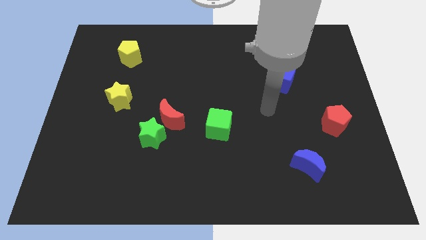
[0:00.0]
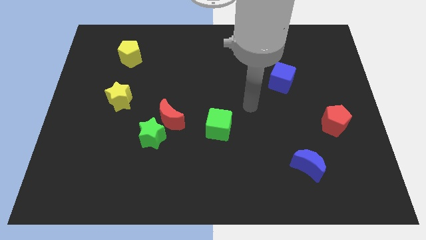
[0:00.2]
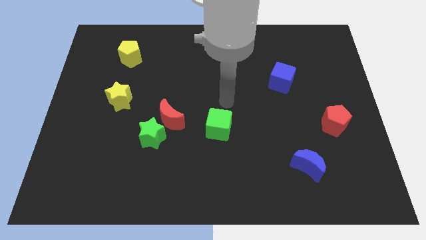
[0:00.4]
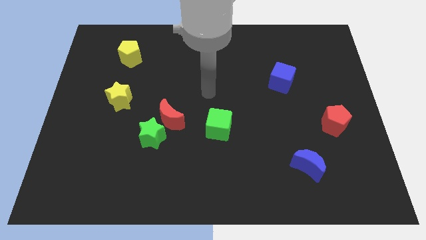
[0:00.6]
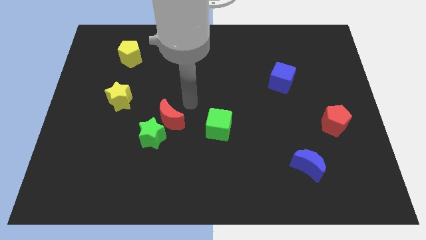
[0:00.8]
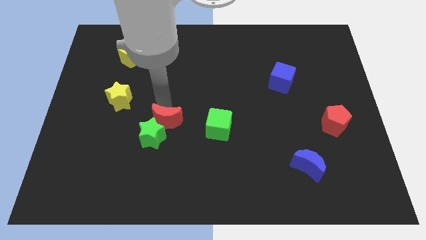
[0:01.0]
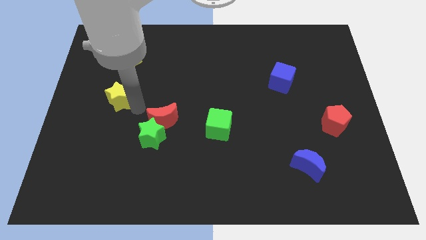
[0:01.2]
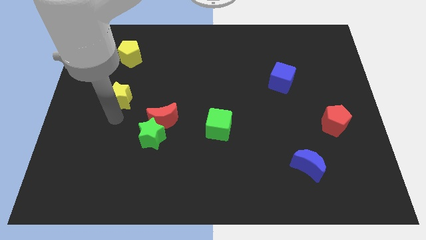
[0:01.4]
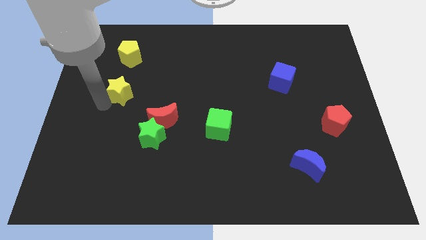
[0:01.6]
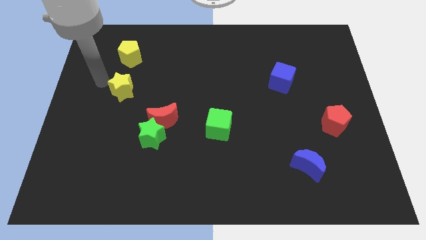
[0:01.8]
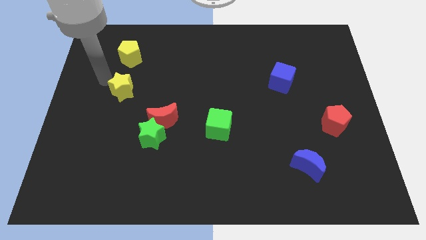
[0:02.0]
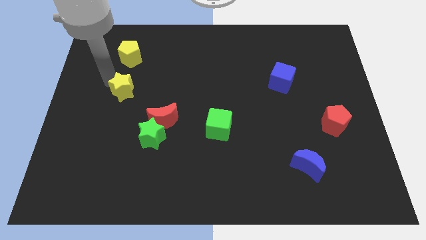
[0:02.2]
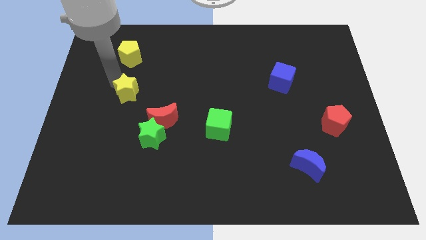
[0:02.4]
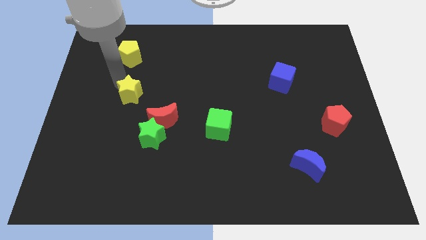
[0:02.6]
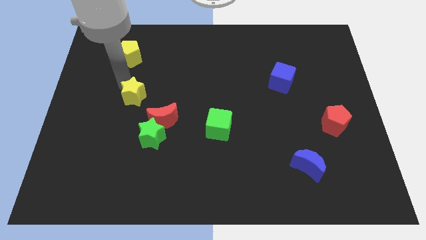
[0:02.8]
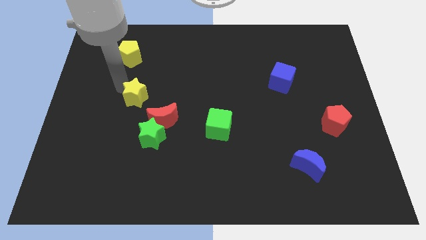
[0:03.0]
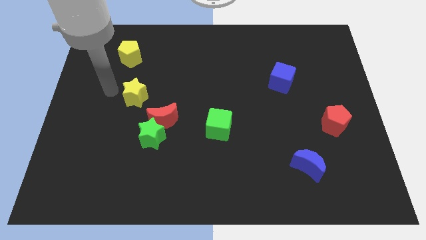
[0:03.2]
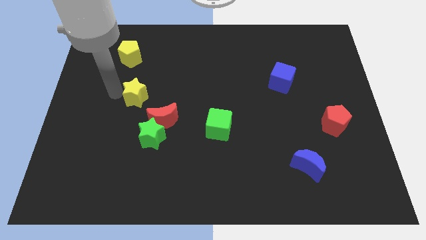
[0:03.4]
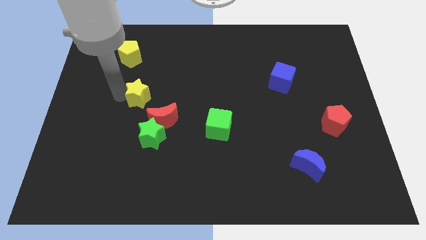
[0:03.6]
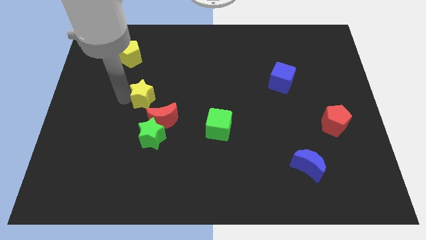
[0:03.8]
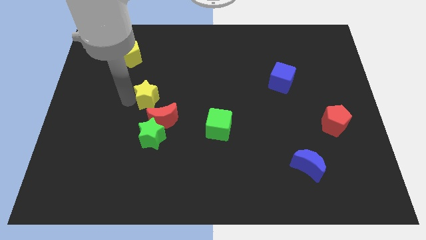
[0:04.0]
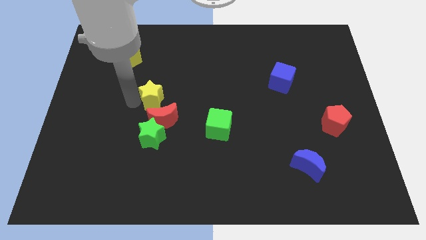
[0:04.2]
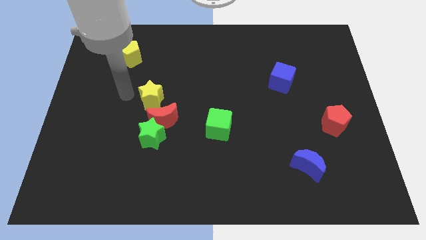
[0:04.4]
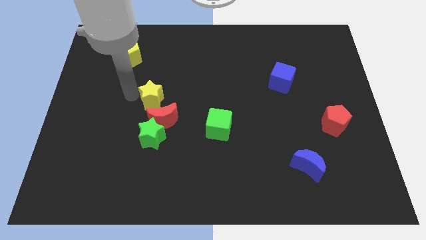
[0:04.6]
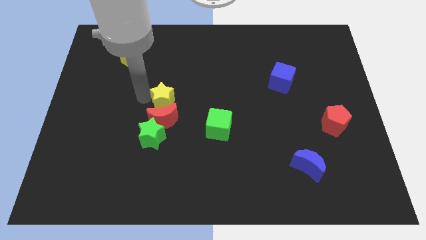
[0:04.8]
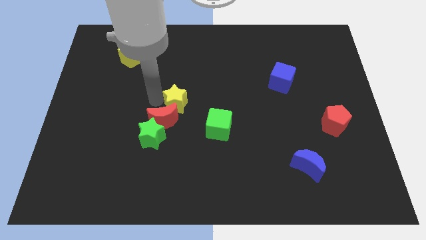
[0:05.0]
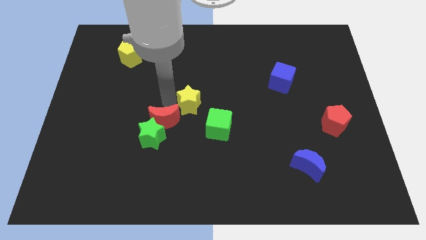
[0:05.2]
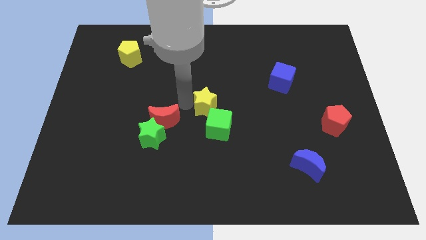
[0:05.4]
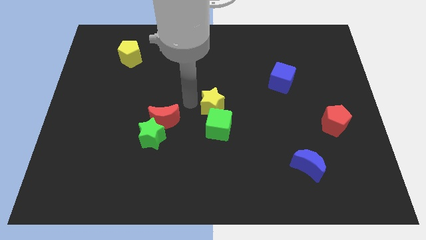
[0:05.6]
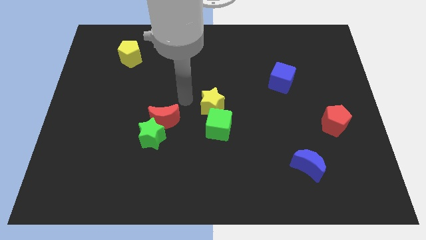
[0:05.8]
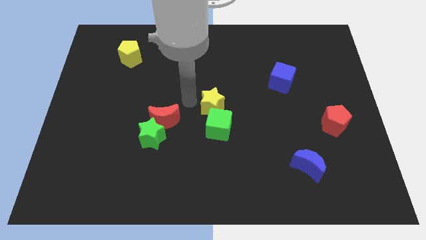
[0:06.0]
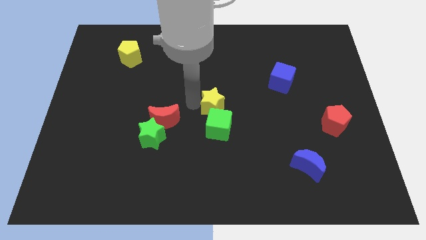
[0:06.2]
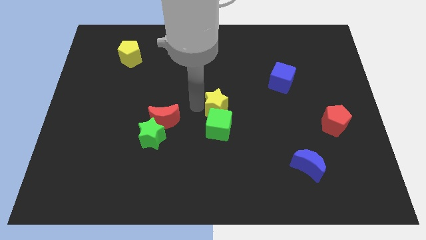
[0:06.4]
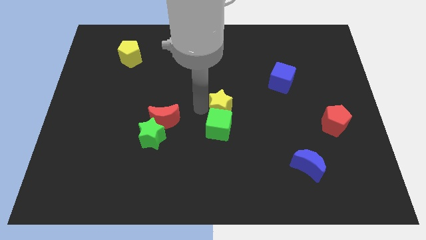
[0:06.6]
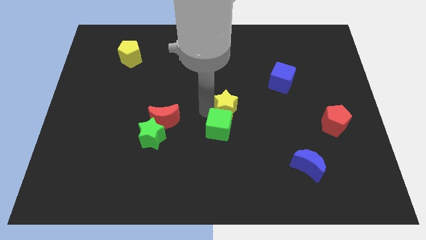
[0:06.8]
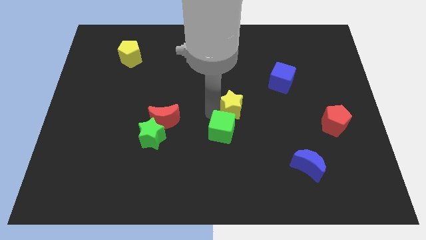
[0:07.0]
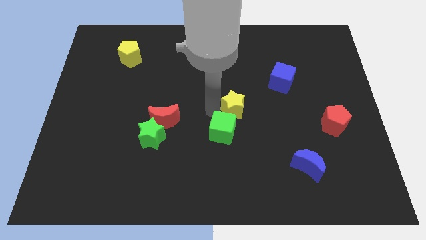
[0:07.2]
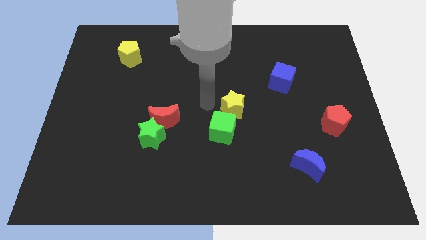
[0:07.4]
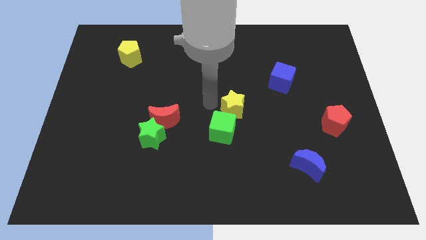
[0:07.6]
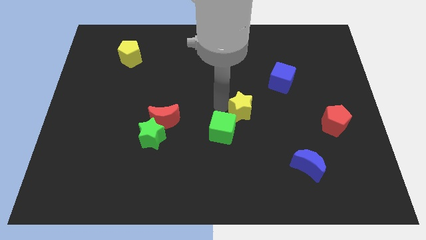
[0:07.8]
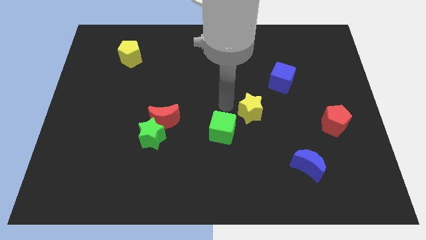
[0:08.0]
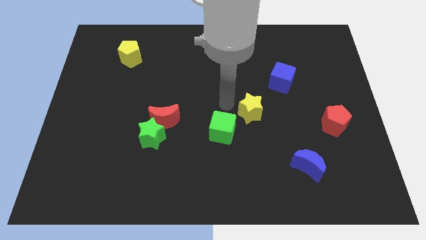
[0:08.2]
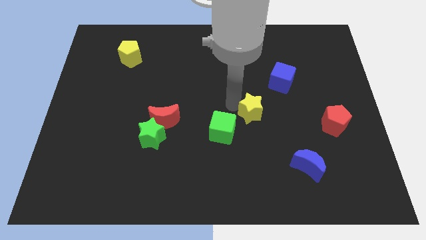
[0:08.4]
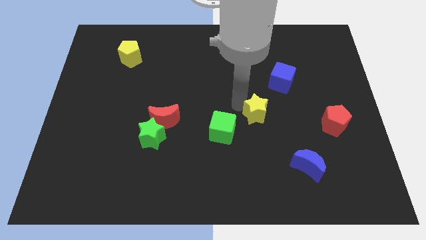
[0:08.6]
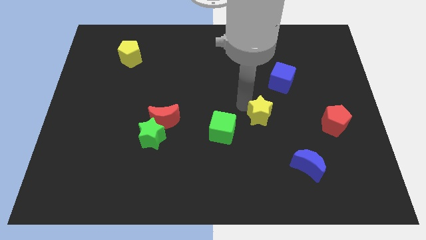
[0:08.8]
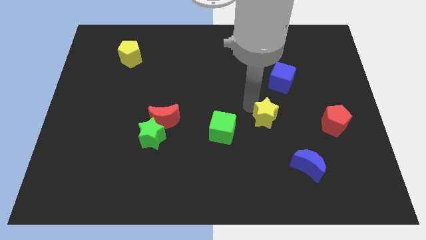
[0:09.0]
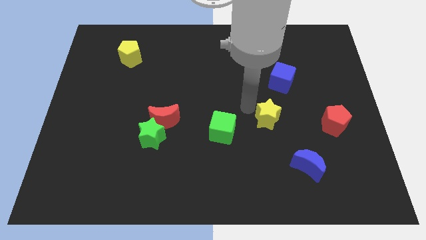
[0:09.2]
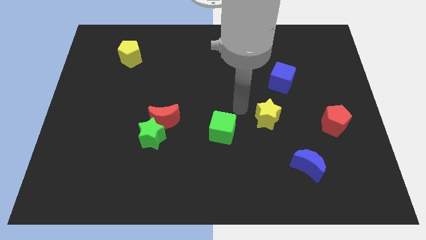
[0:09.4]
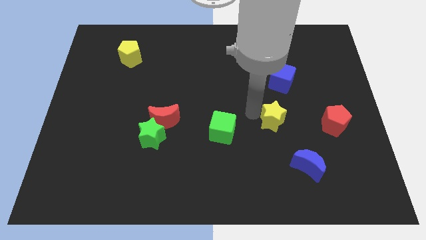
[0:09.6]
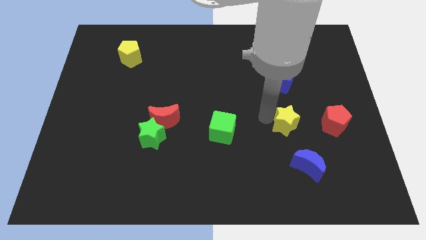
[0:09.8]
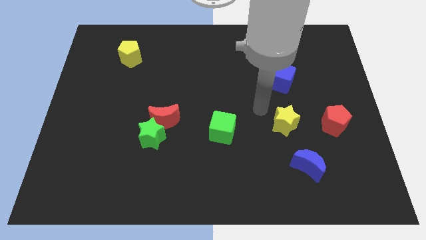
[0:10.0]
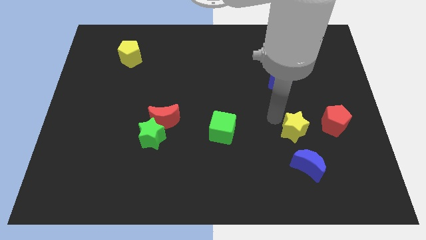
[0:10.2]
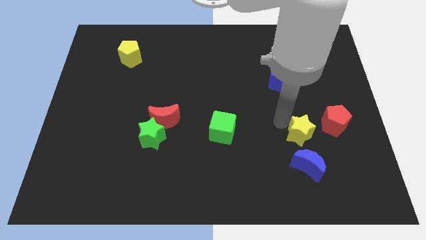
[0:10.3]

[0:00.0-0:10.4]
put the yellow star diagonally down and to the left of the red pentagon

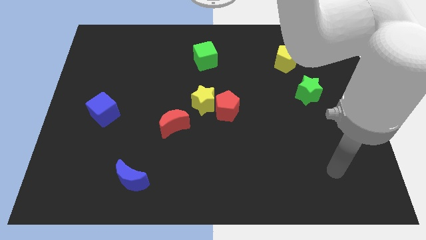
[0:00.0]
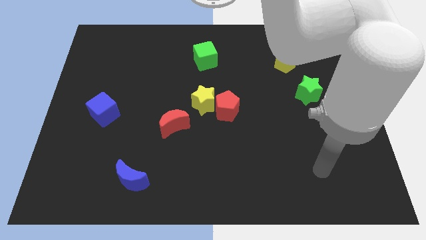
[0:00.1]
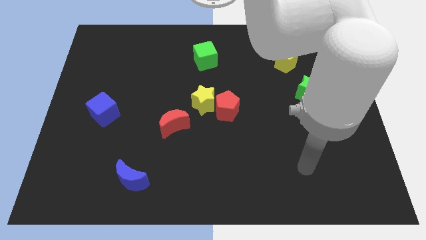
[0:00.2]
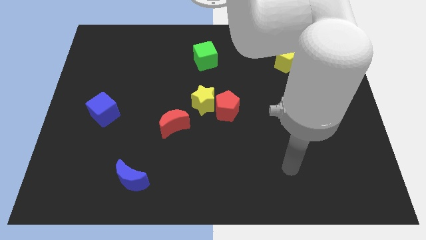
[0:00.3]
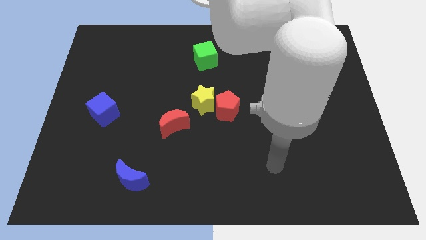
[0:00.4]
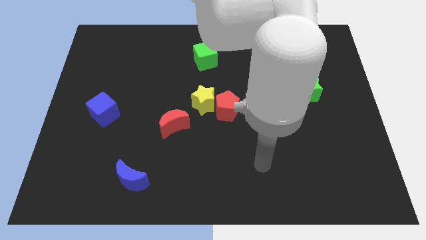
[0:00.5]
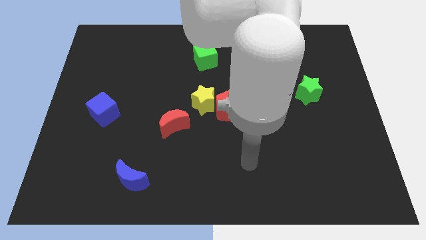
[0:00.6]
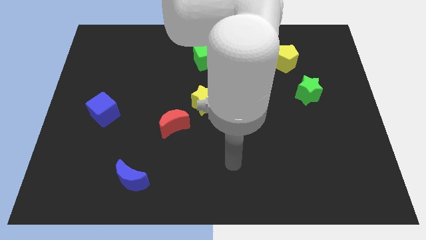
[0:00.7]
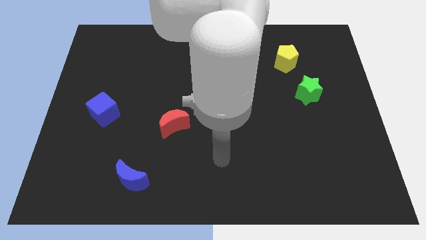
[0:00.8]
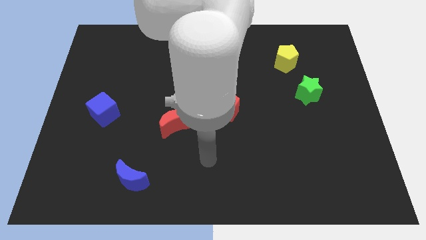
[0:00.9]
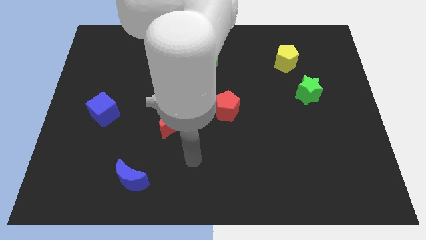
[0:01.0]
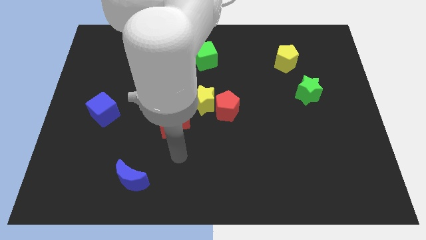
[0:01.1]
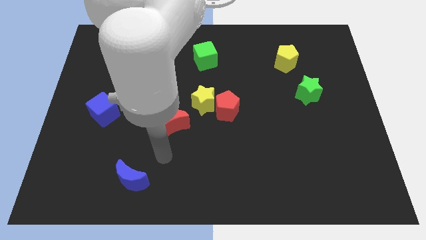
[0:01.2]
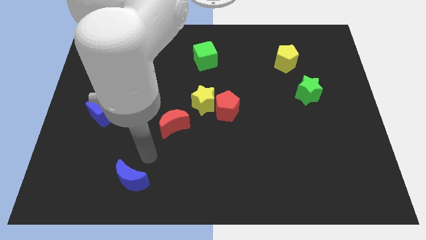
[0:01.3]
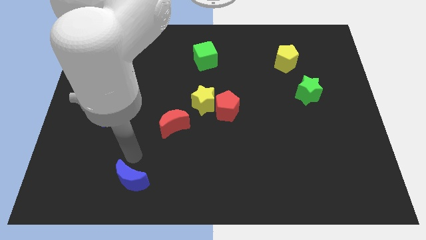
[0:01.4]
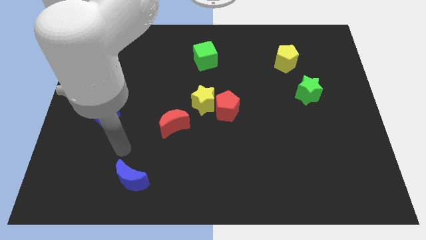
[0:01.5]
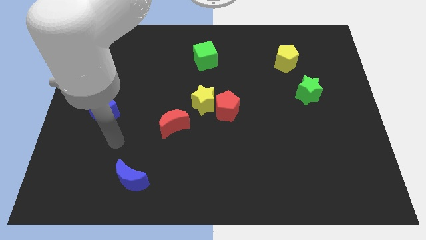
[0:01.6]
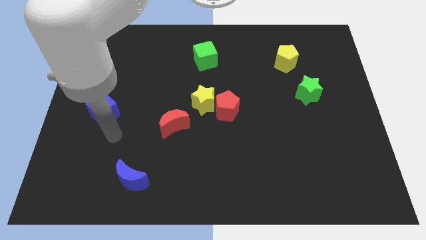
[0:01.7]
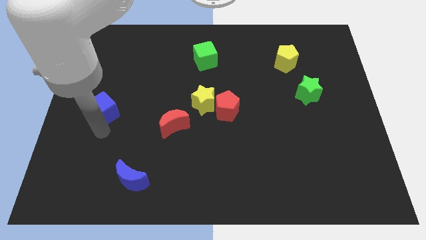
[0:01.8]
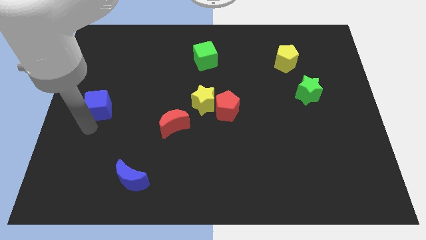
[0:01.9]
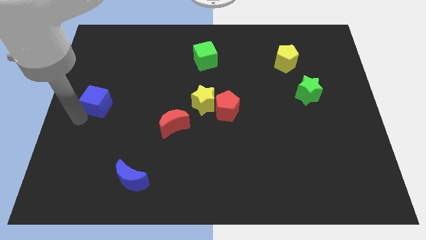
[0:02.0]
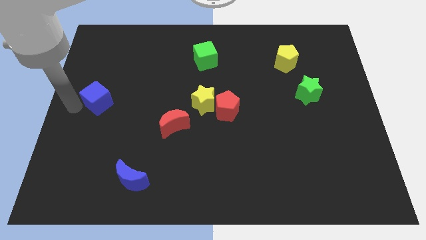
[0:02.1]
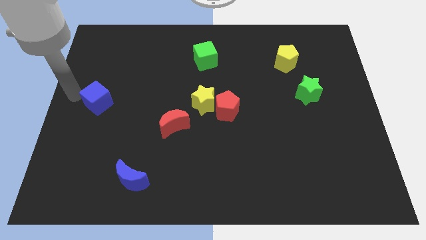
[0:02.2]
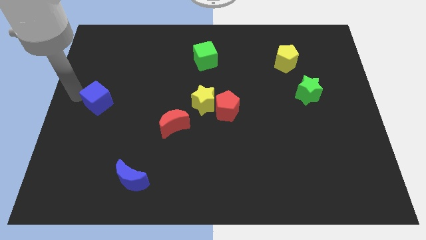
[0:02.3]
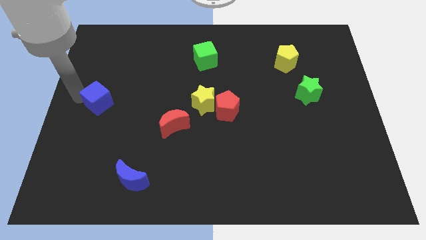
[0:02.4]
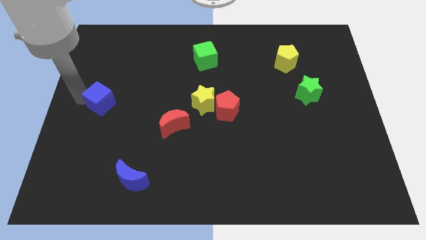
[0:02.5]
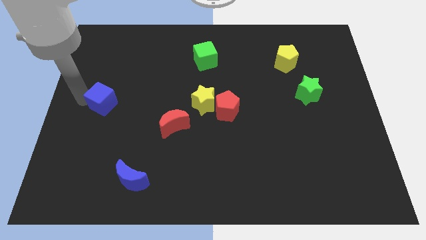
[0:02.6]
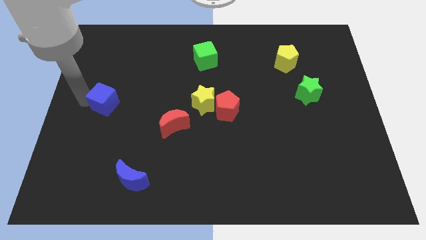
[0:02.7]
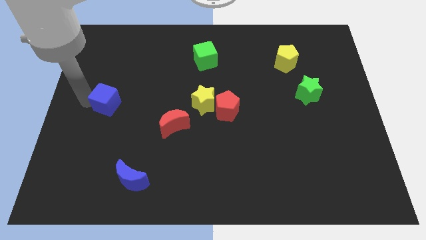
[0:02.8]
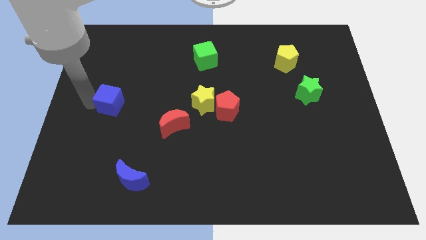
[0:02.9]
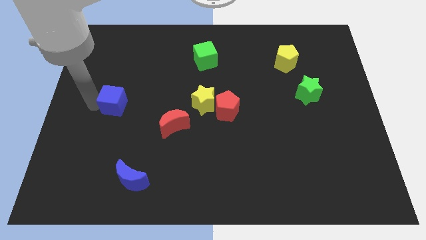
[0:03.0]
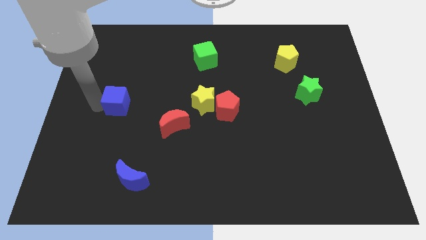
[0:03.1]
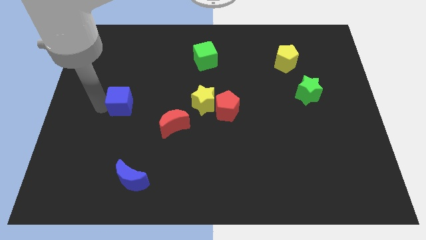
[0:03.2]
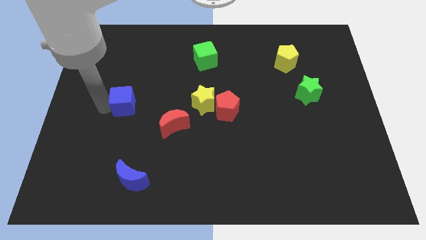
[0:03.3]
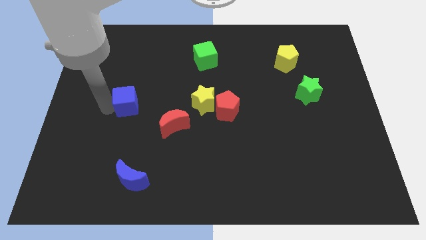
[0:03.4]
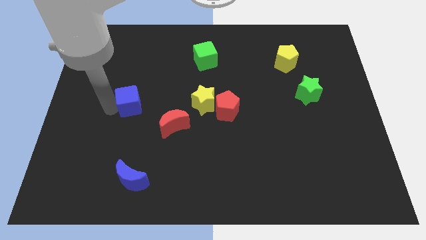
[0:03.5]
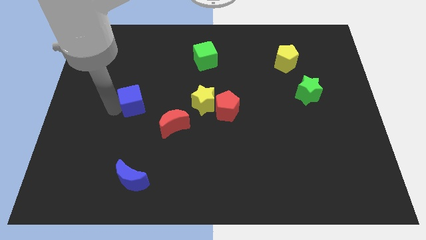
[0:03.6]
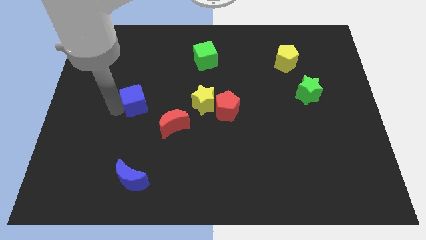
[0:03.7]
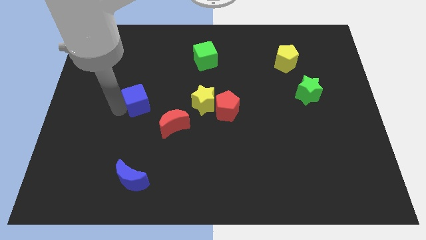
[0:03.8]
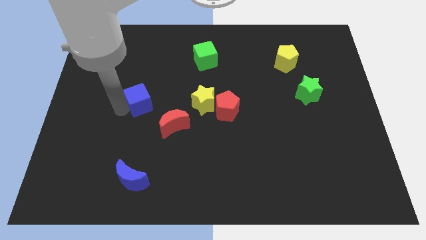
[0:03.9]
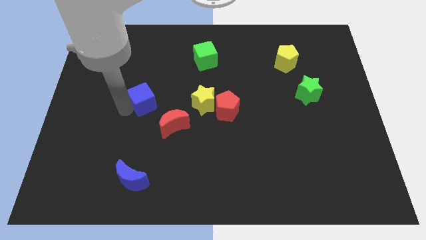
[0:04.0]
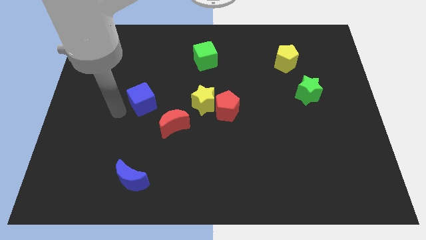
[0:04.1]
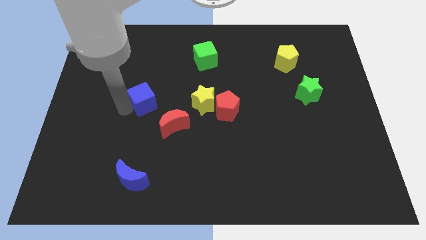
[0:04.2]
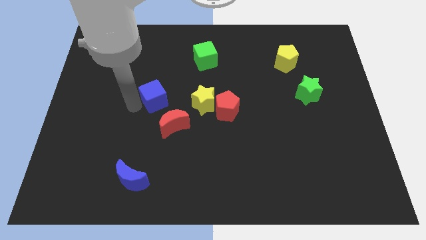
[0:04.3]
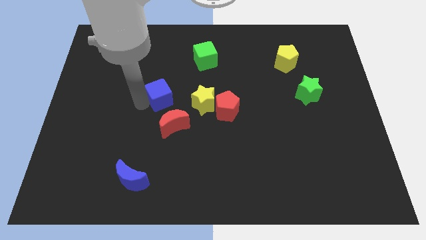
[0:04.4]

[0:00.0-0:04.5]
push the blue cube to the top of the red moon
